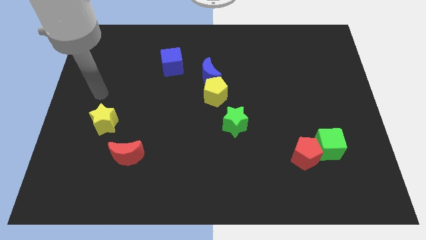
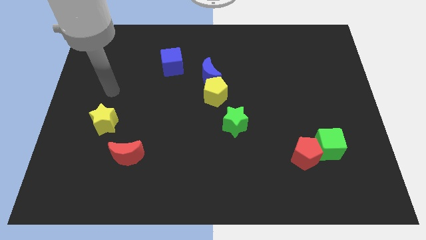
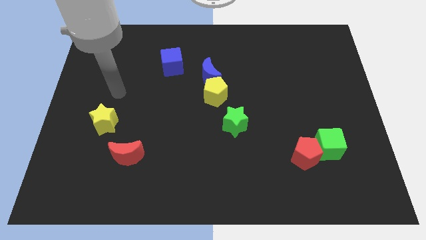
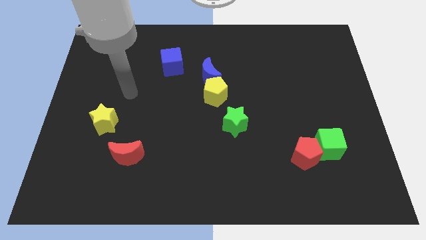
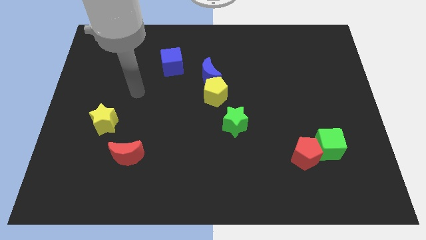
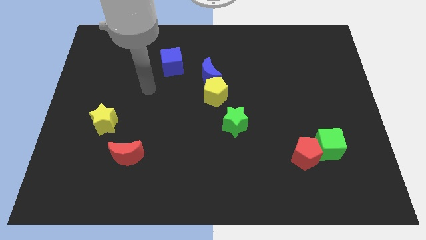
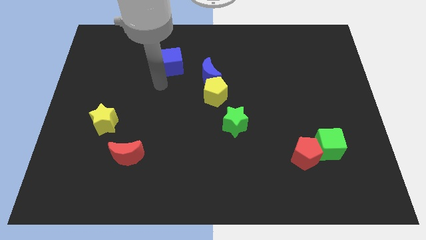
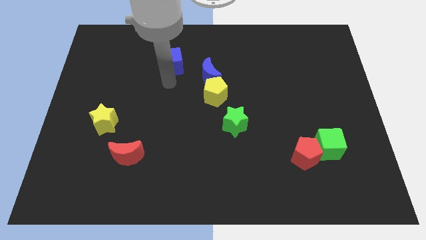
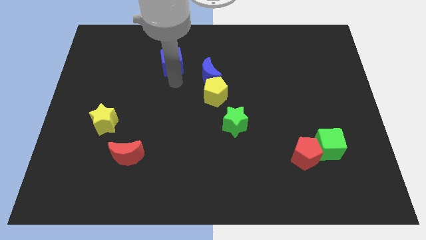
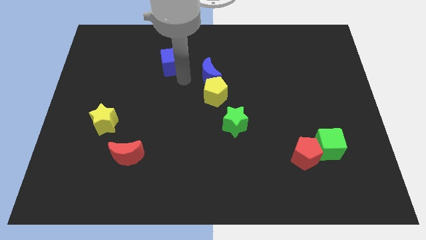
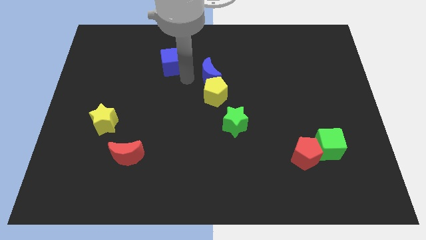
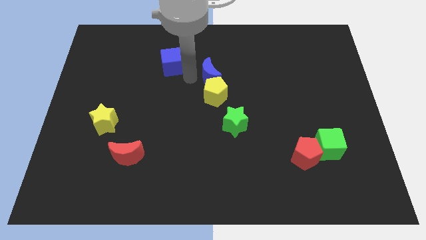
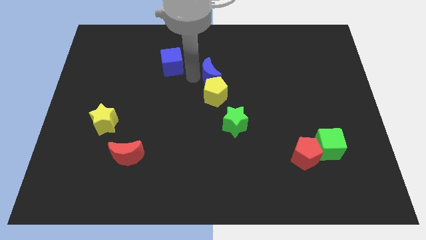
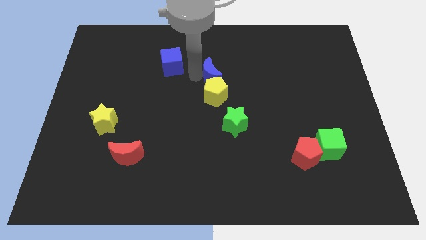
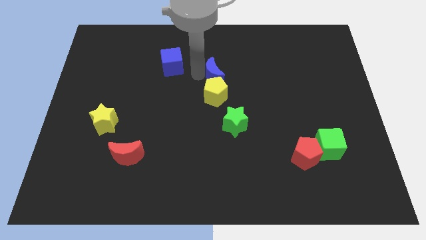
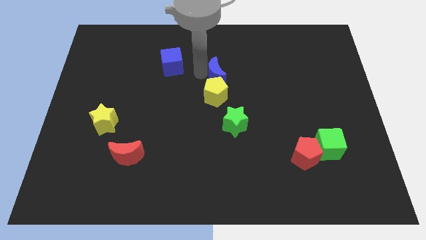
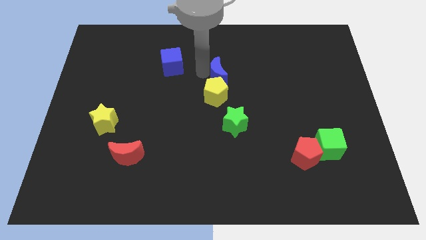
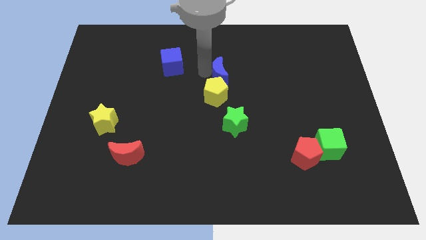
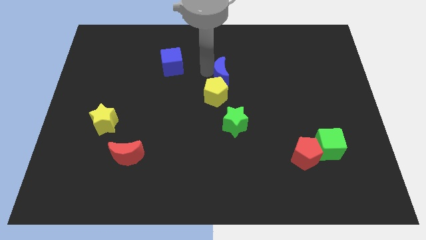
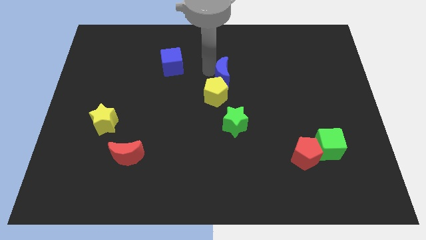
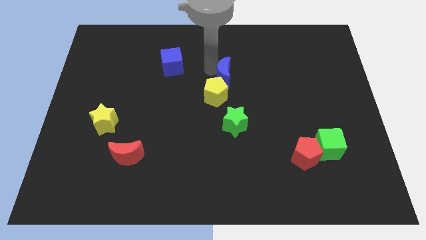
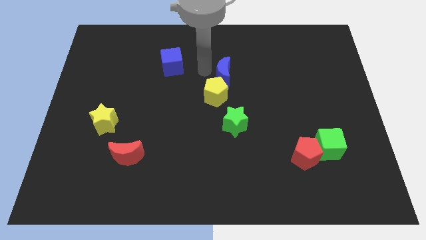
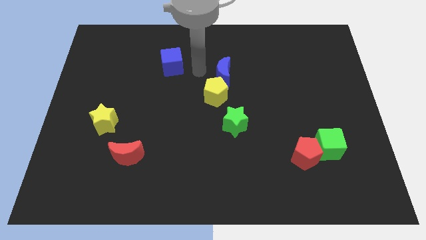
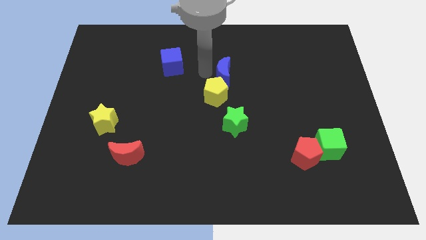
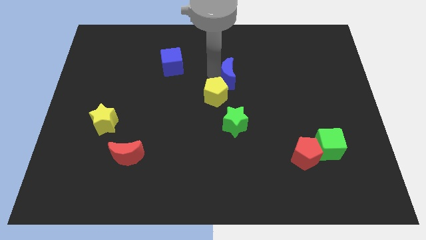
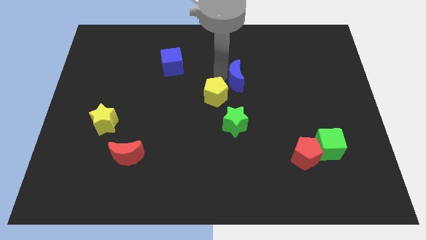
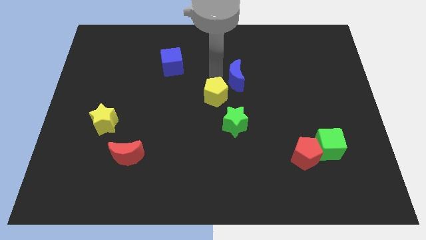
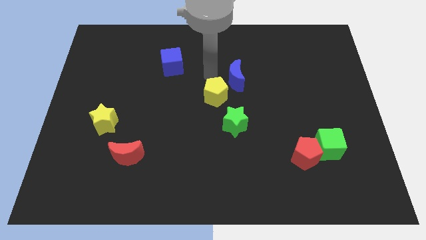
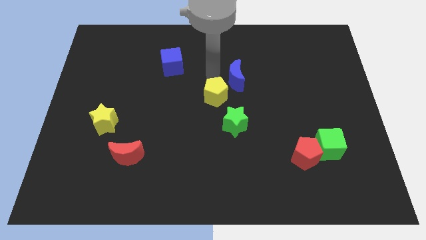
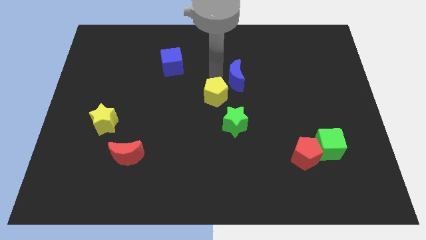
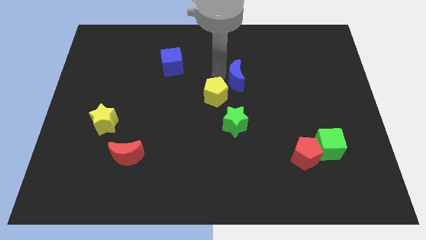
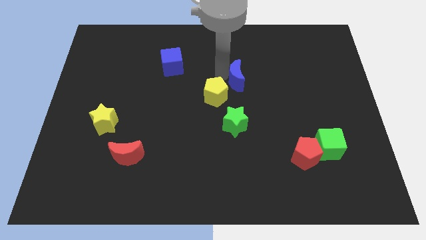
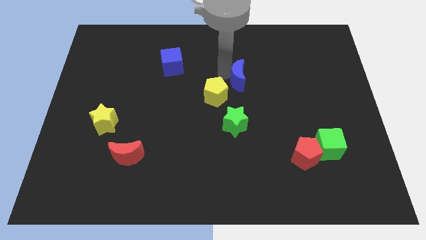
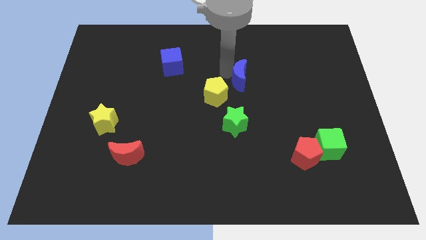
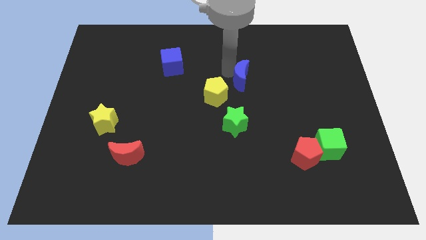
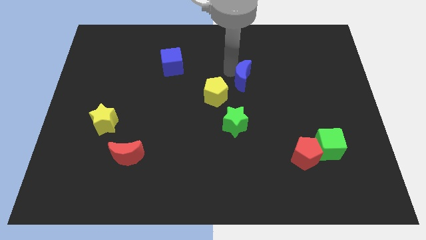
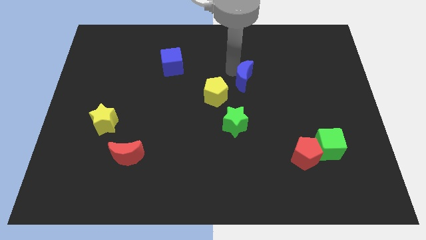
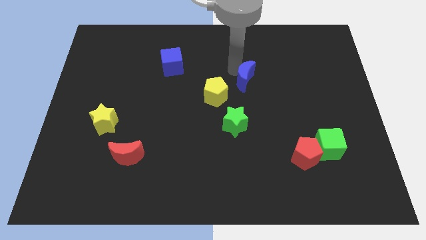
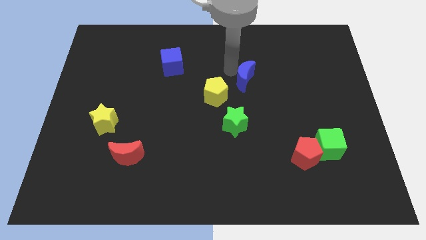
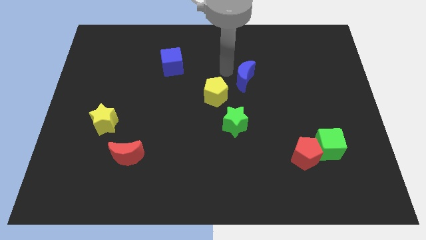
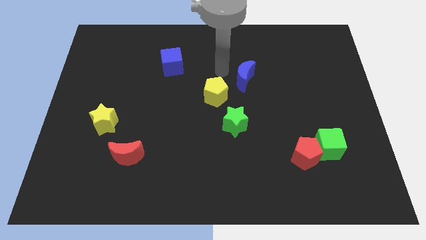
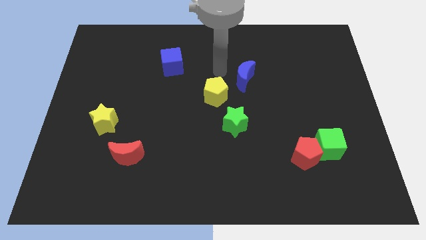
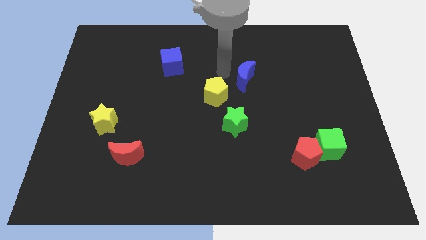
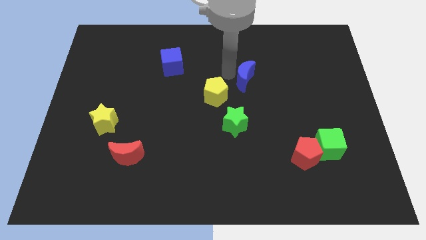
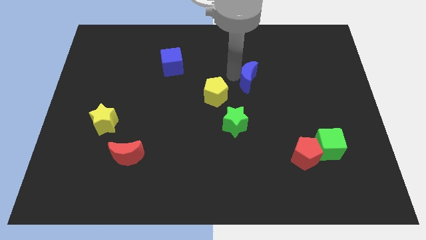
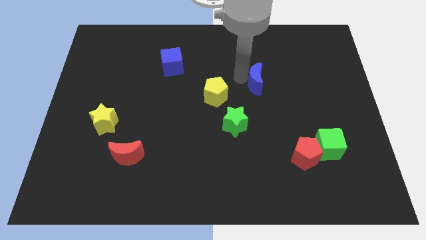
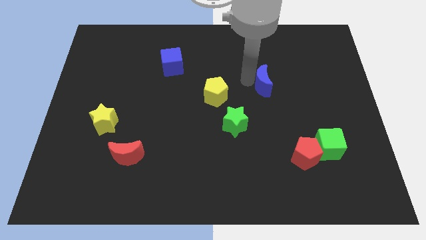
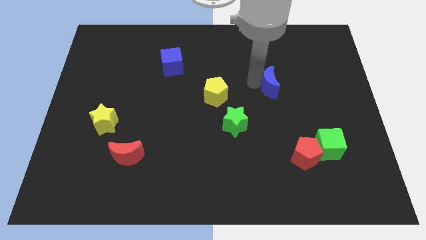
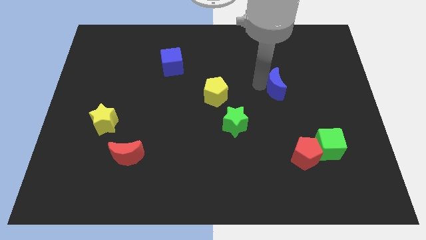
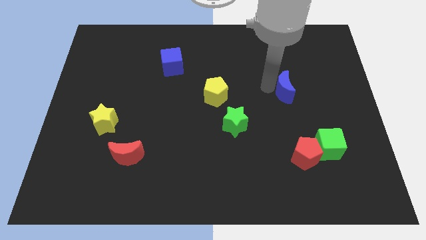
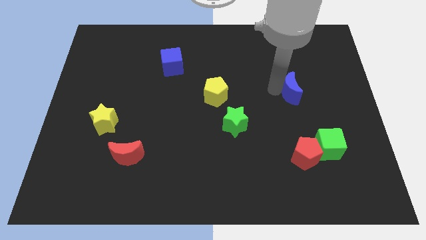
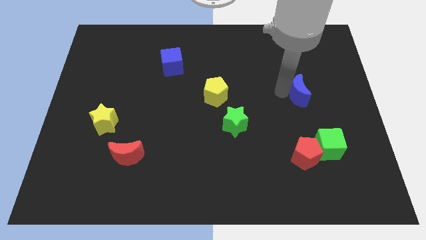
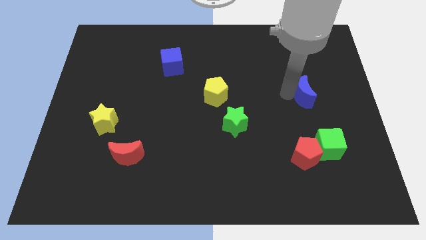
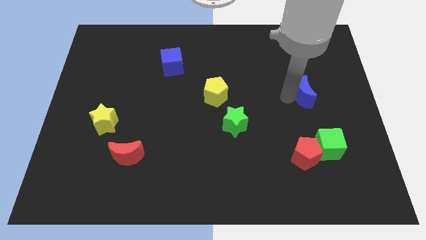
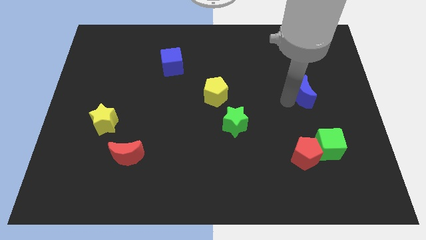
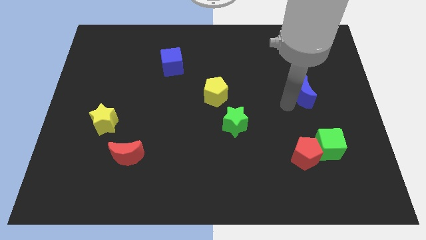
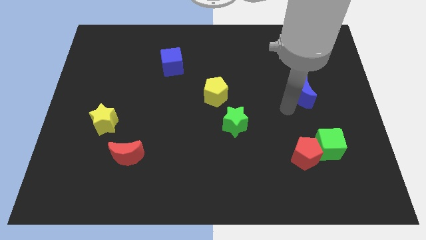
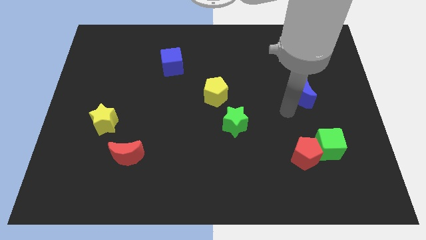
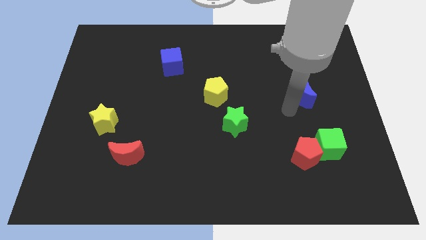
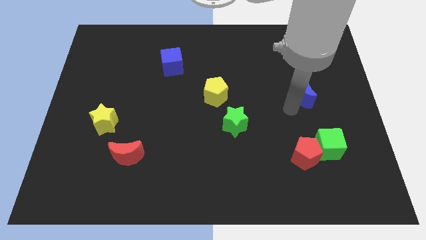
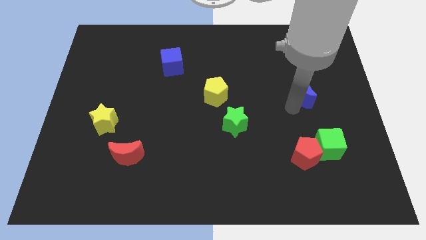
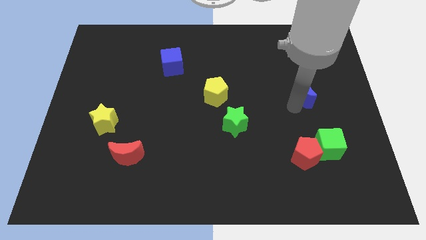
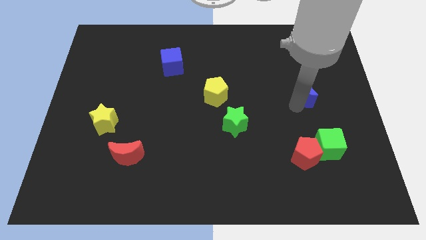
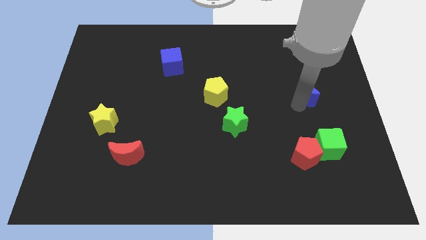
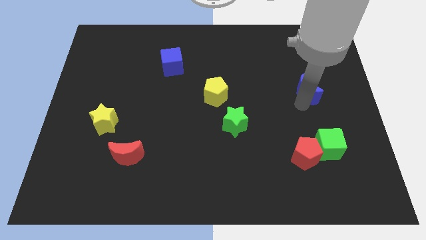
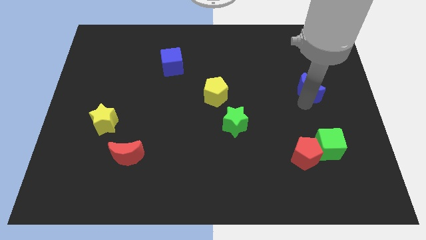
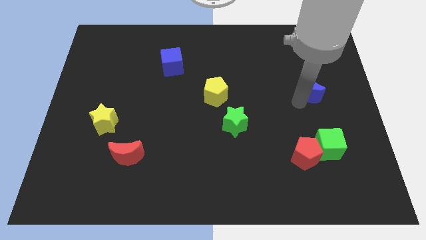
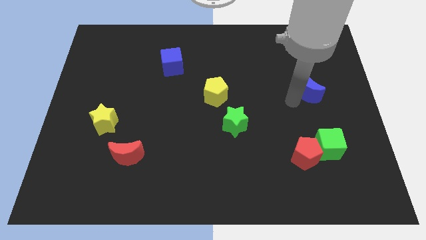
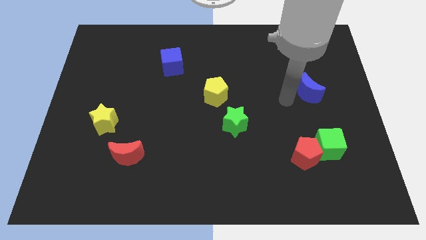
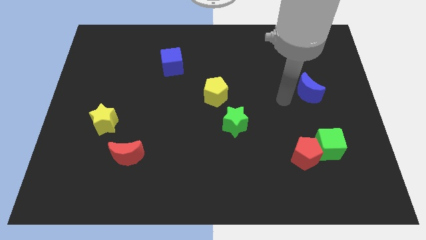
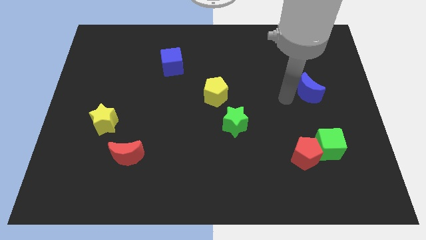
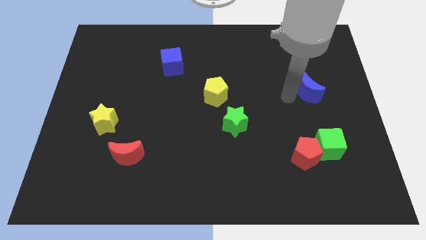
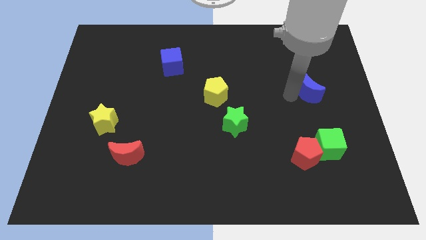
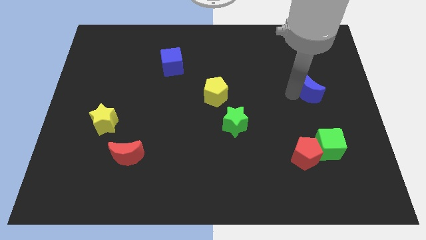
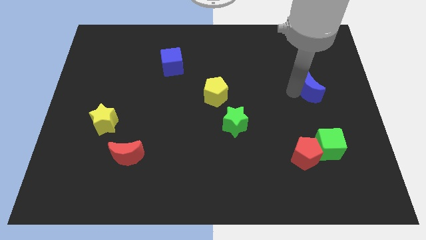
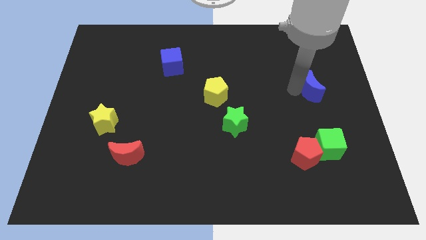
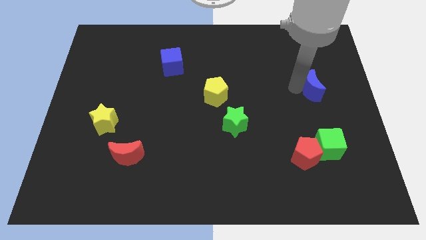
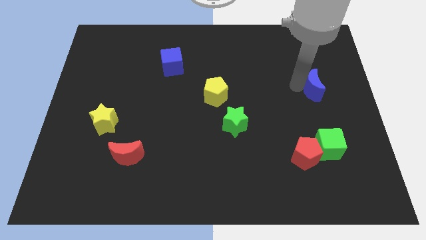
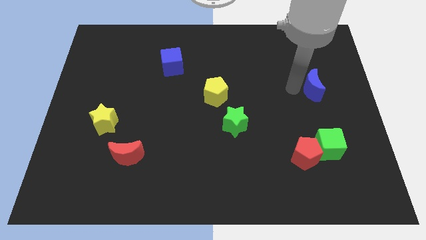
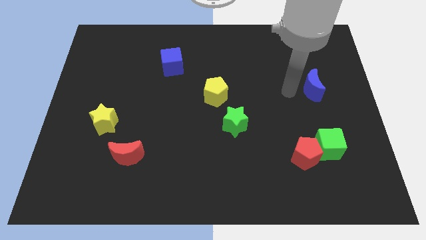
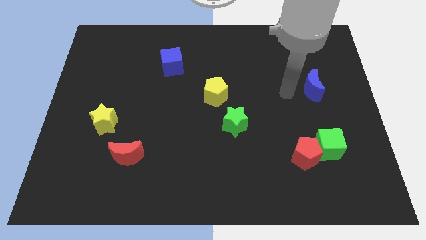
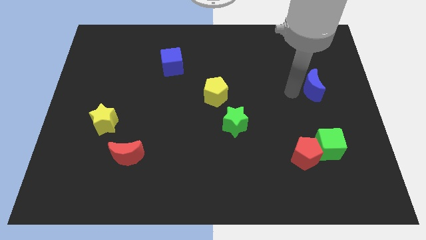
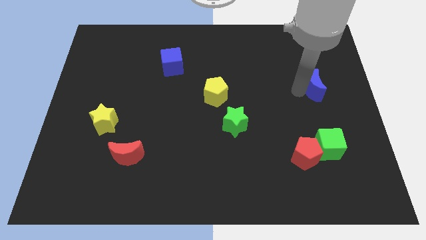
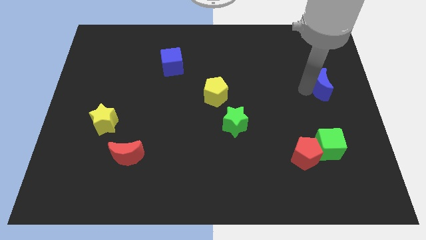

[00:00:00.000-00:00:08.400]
put the blue moon to the right side of the board
